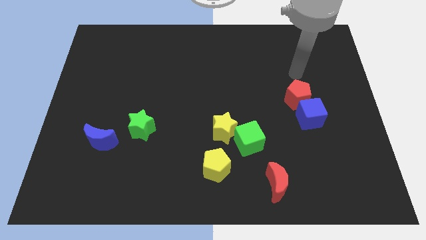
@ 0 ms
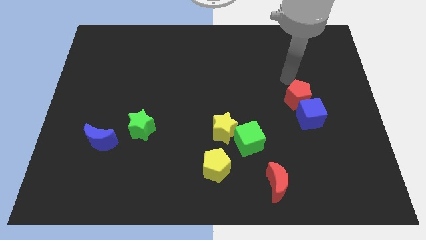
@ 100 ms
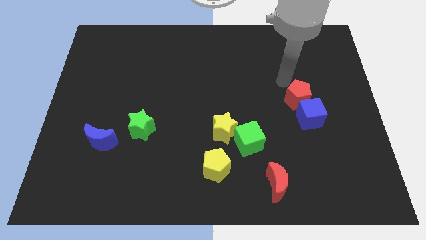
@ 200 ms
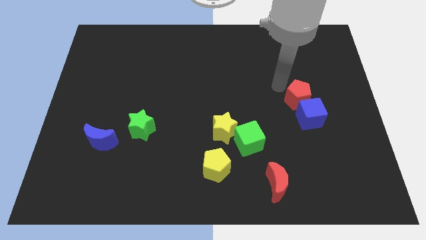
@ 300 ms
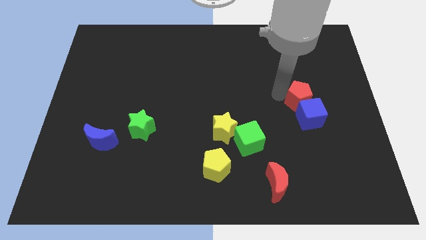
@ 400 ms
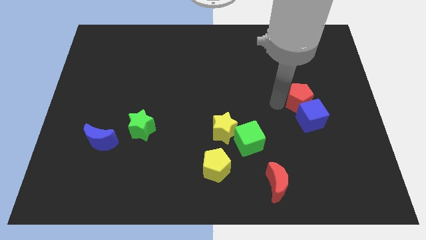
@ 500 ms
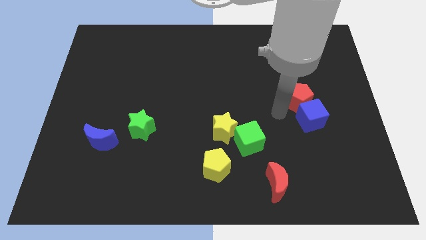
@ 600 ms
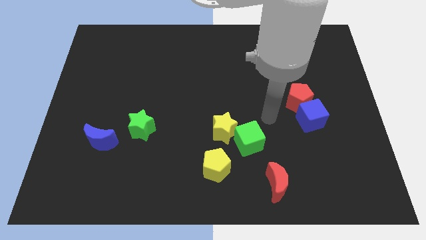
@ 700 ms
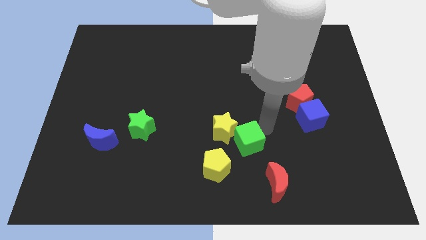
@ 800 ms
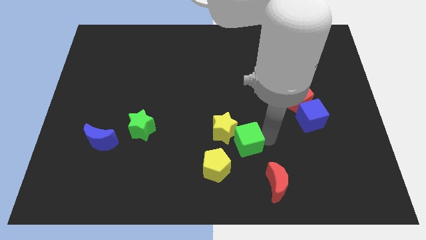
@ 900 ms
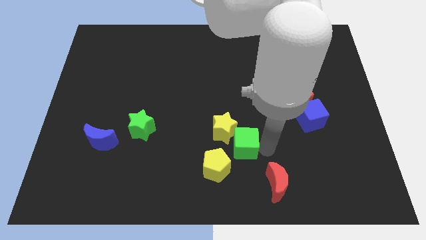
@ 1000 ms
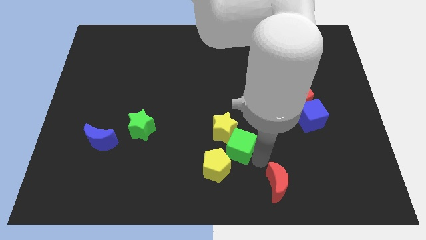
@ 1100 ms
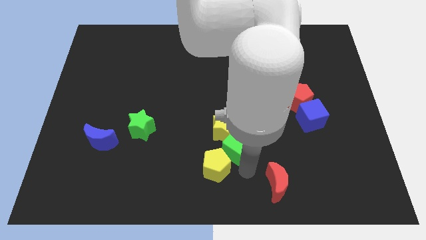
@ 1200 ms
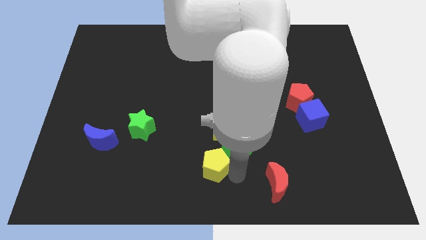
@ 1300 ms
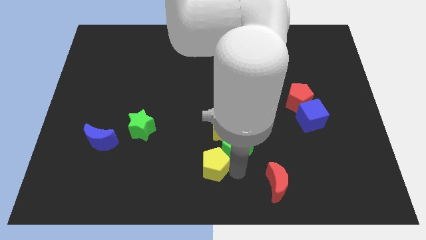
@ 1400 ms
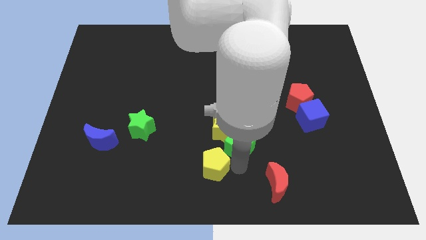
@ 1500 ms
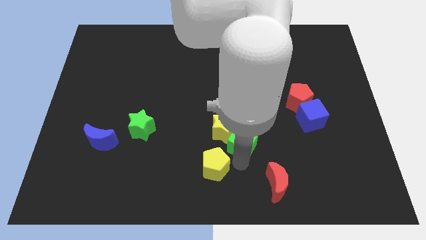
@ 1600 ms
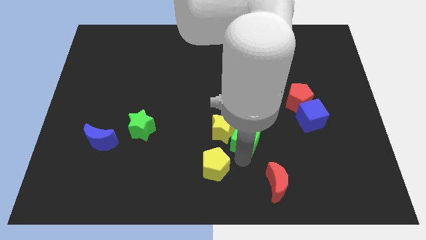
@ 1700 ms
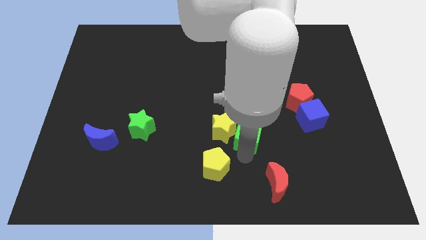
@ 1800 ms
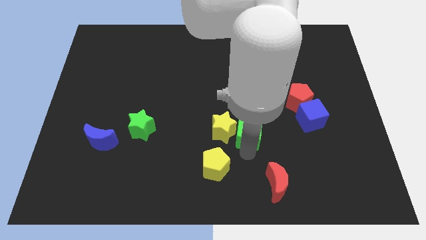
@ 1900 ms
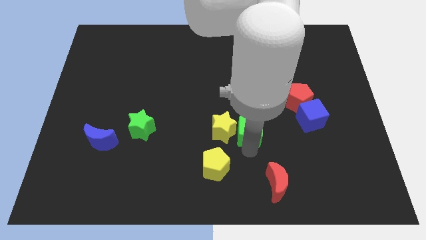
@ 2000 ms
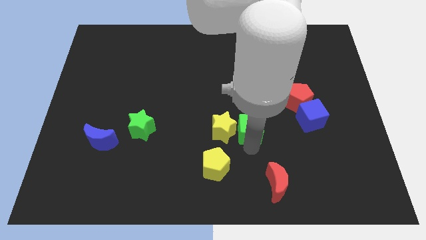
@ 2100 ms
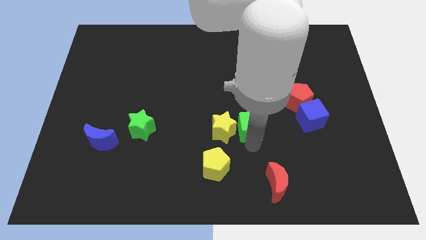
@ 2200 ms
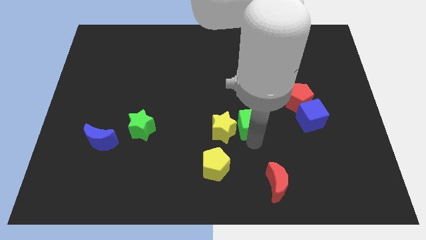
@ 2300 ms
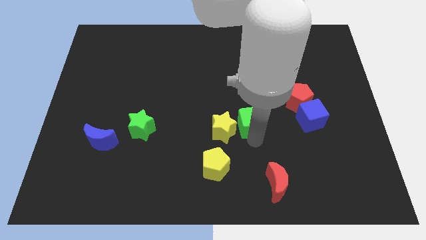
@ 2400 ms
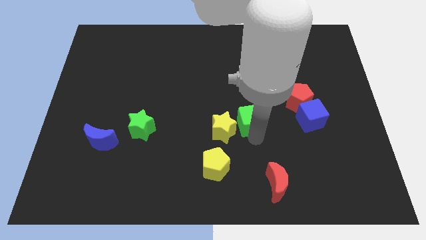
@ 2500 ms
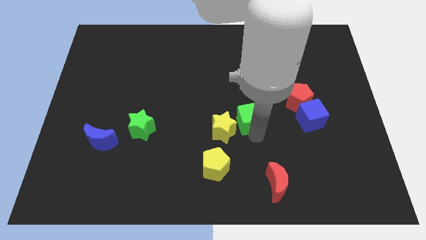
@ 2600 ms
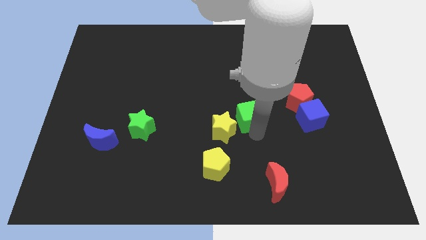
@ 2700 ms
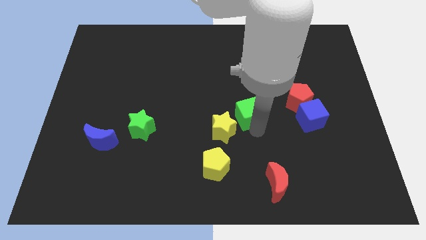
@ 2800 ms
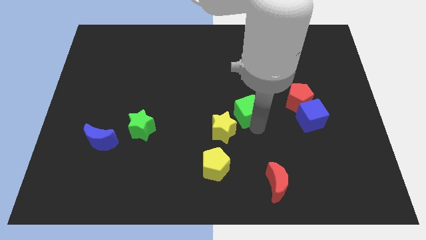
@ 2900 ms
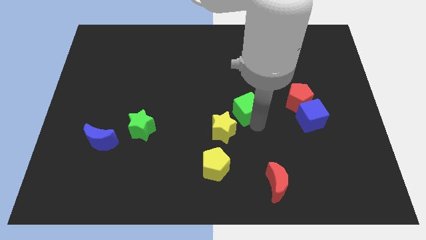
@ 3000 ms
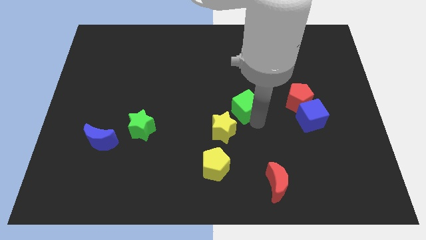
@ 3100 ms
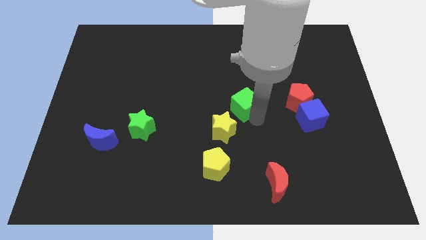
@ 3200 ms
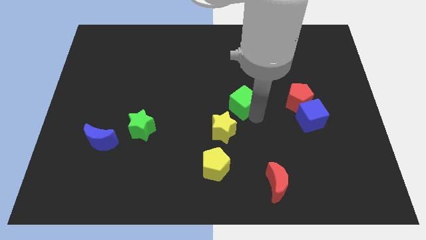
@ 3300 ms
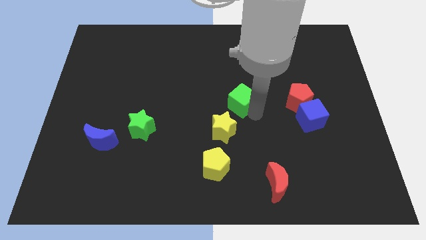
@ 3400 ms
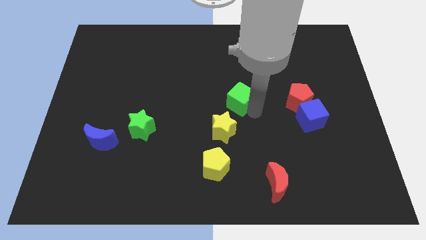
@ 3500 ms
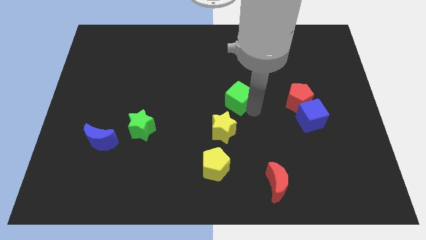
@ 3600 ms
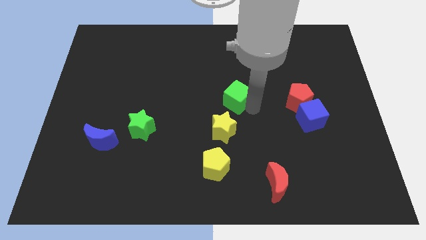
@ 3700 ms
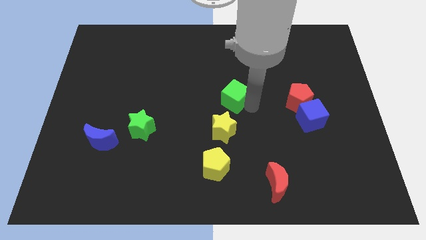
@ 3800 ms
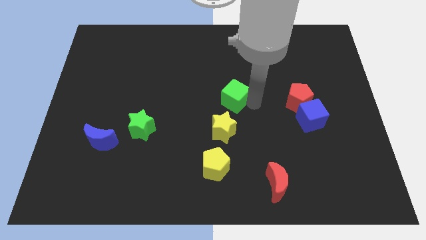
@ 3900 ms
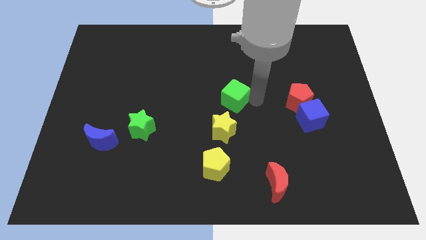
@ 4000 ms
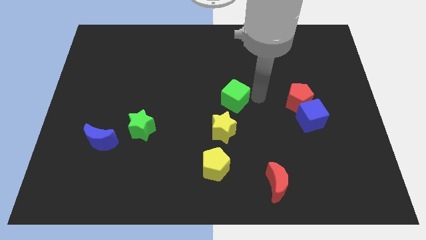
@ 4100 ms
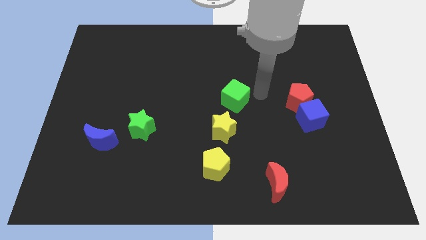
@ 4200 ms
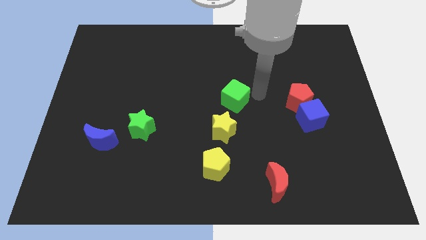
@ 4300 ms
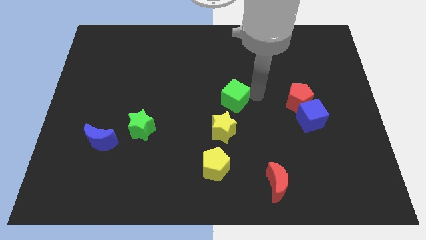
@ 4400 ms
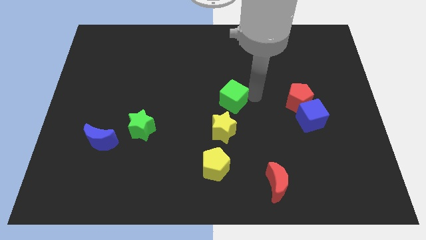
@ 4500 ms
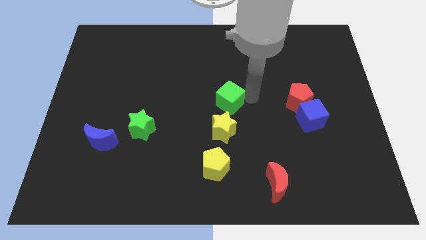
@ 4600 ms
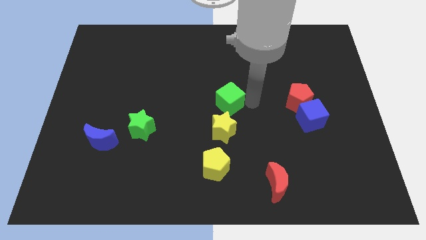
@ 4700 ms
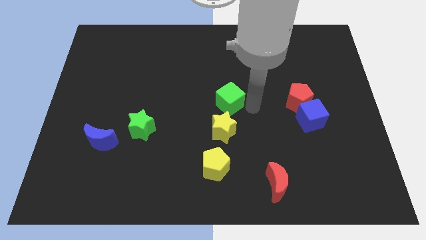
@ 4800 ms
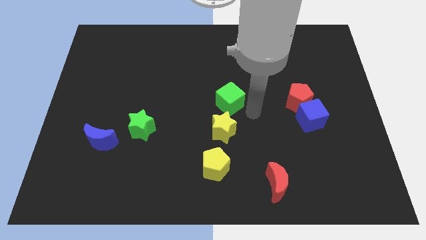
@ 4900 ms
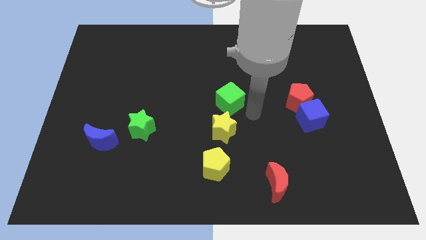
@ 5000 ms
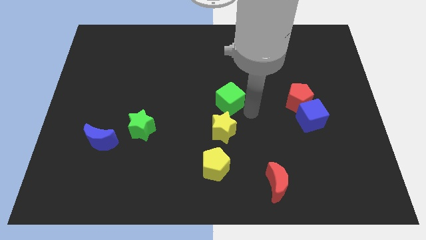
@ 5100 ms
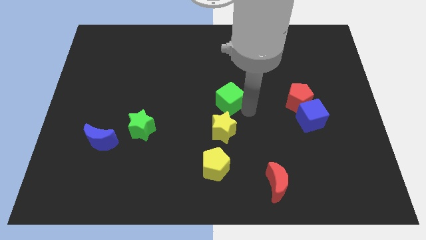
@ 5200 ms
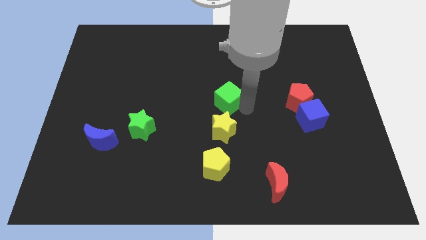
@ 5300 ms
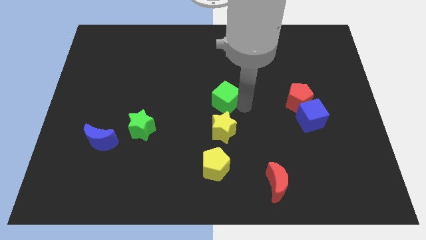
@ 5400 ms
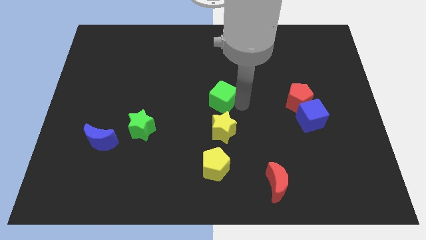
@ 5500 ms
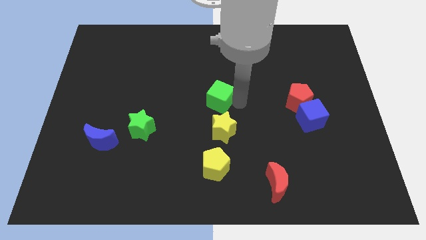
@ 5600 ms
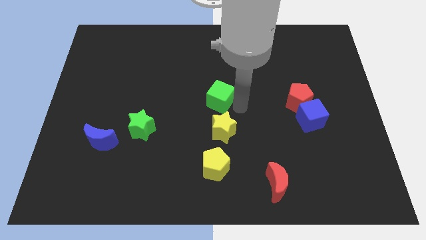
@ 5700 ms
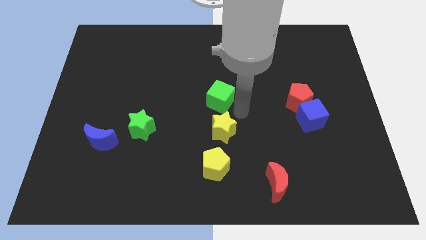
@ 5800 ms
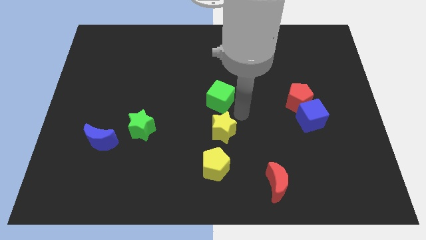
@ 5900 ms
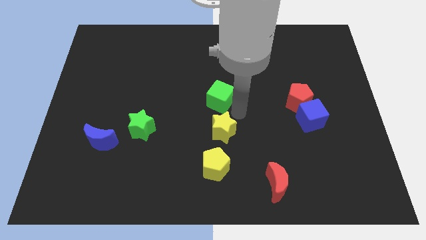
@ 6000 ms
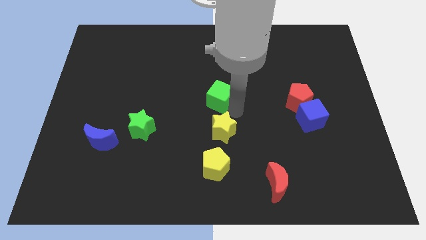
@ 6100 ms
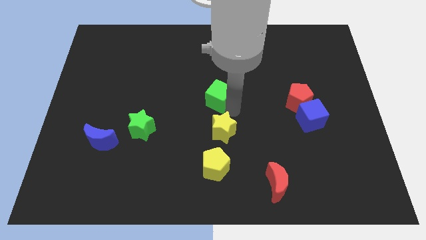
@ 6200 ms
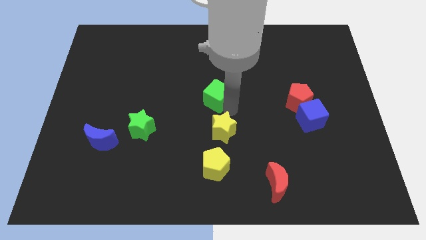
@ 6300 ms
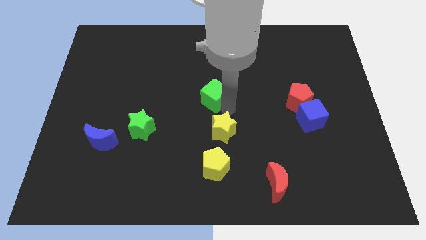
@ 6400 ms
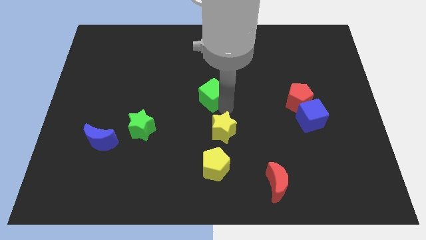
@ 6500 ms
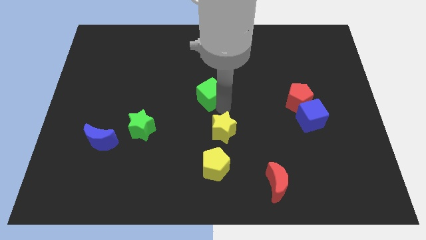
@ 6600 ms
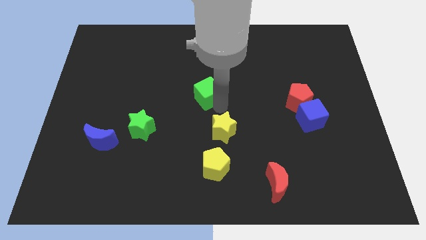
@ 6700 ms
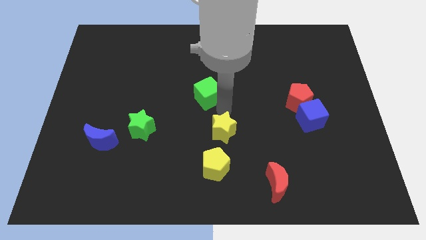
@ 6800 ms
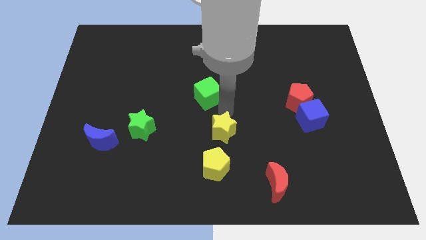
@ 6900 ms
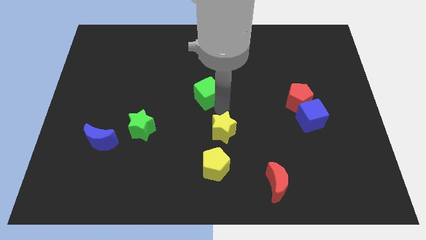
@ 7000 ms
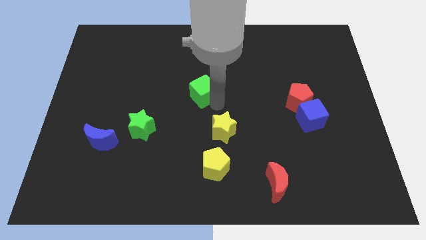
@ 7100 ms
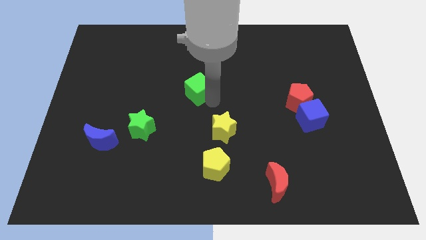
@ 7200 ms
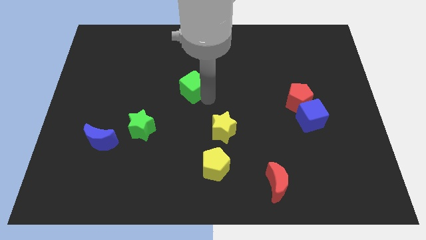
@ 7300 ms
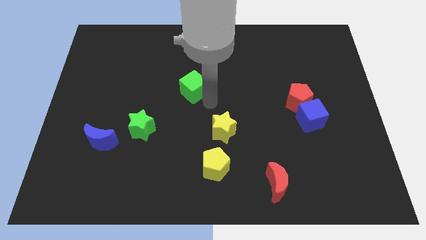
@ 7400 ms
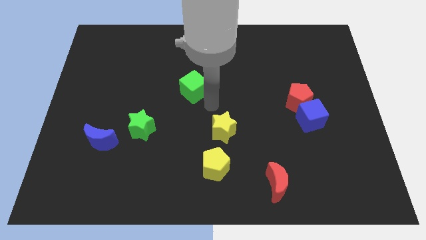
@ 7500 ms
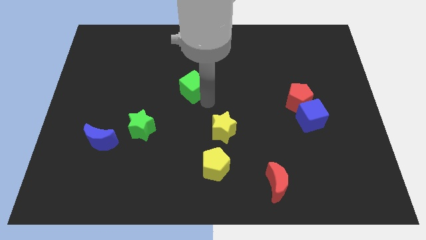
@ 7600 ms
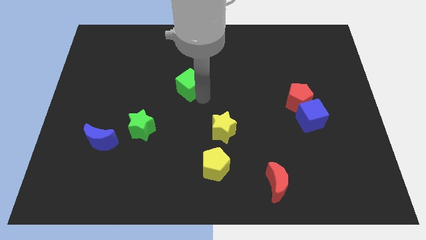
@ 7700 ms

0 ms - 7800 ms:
push the green cube diagonally up and left
